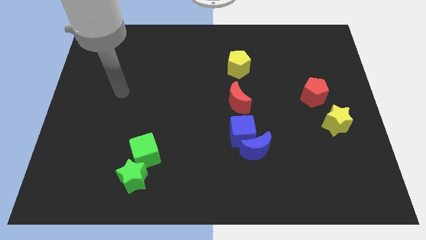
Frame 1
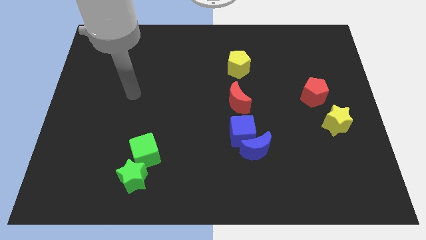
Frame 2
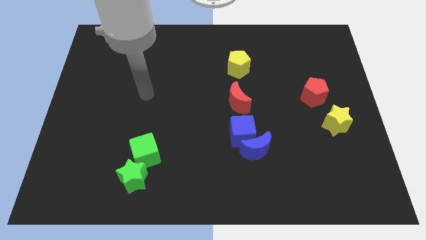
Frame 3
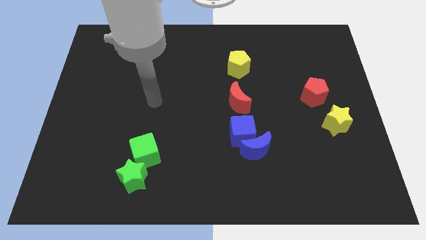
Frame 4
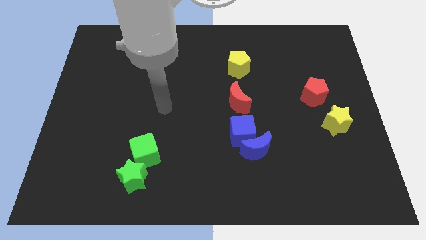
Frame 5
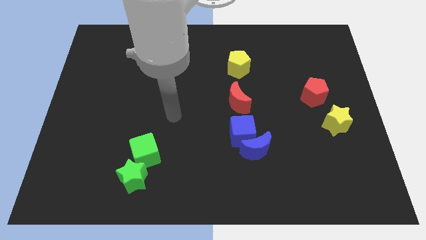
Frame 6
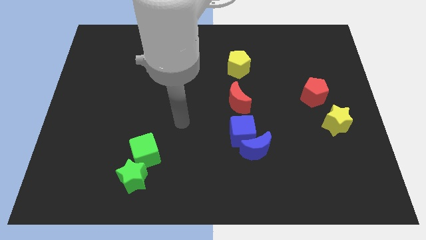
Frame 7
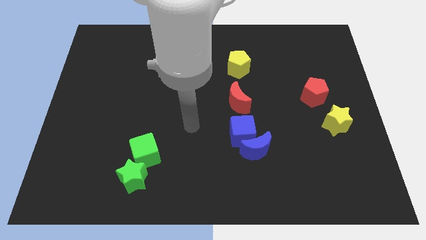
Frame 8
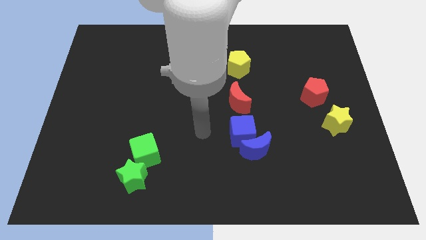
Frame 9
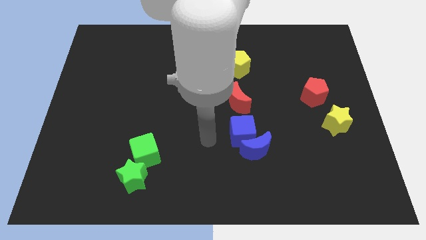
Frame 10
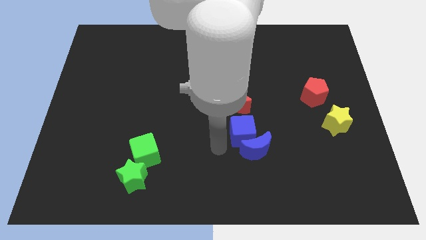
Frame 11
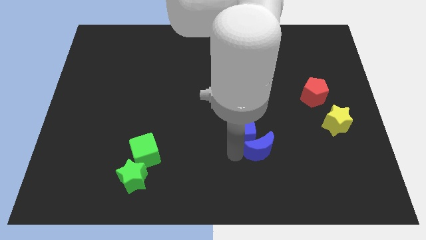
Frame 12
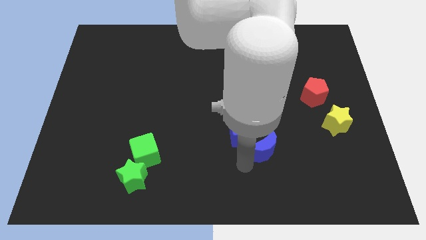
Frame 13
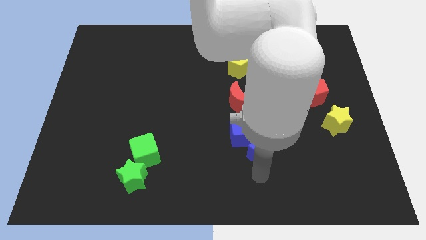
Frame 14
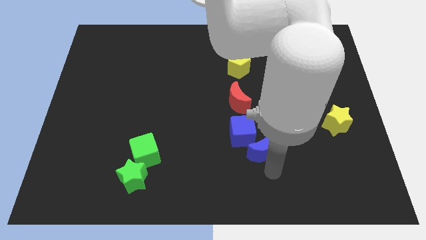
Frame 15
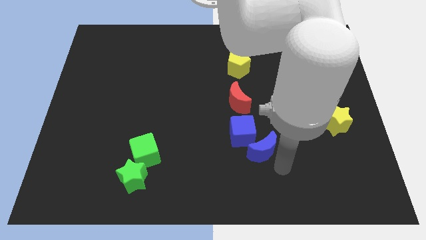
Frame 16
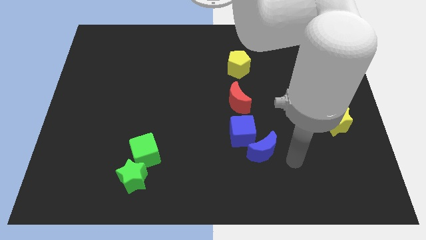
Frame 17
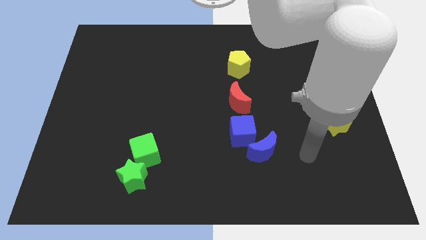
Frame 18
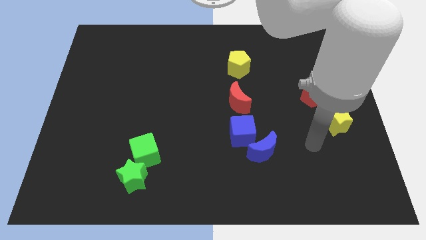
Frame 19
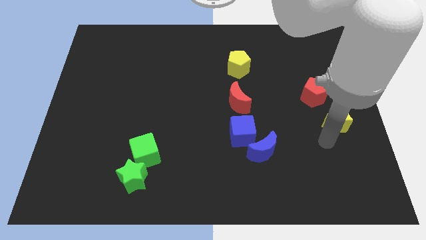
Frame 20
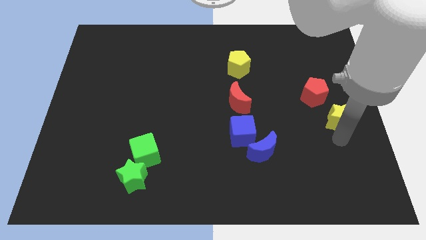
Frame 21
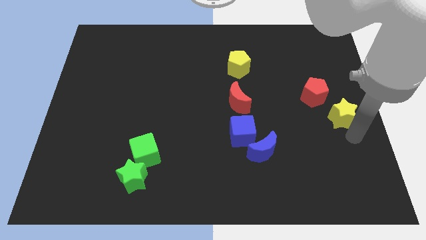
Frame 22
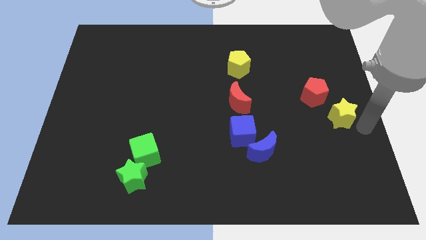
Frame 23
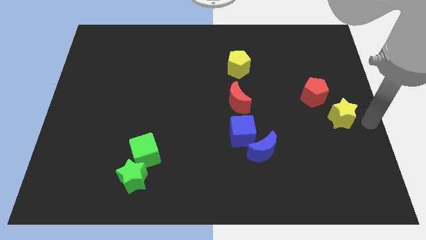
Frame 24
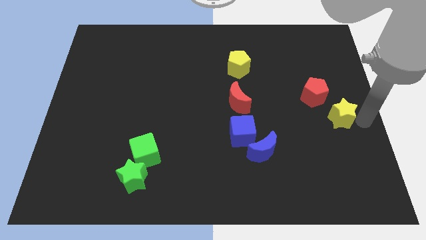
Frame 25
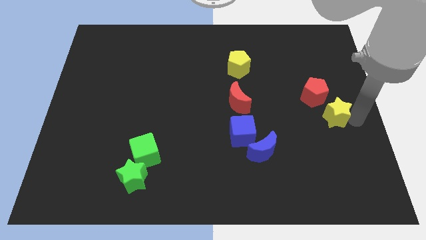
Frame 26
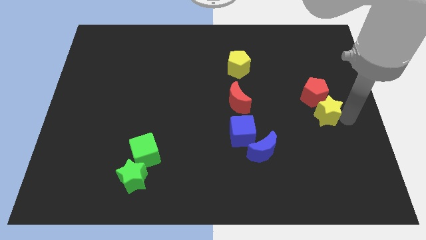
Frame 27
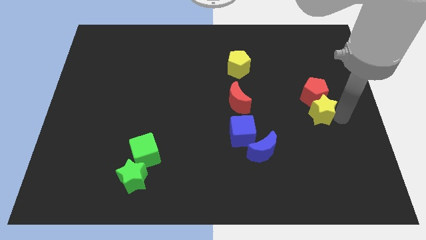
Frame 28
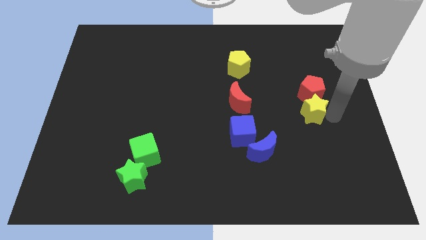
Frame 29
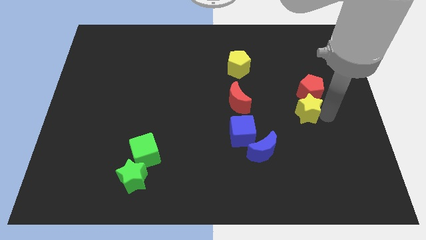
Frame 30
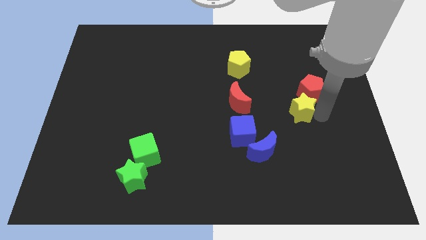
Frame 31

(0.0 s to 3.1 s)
slide the yellow star up and left a bit

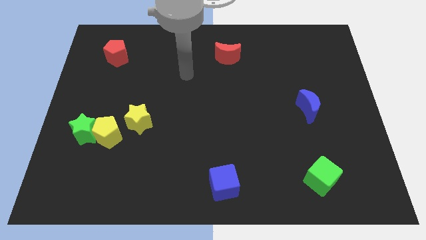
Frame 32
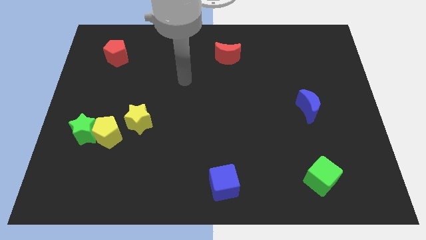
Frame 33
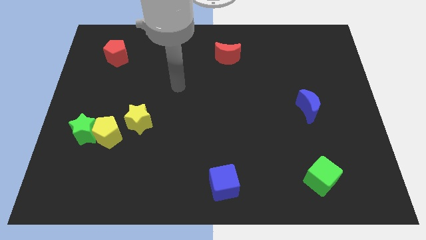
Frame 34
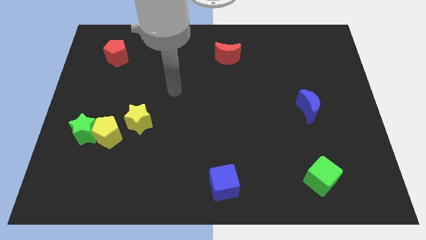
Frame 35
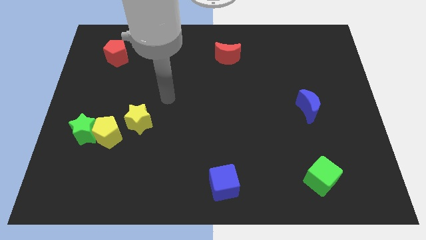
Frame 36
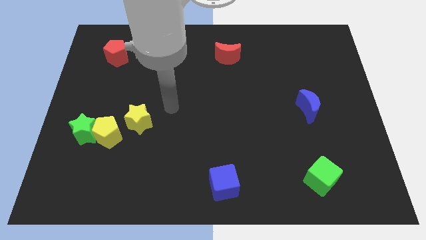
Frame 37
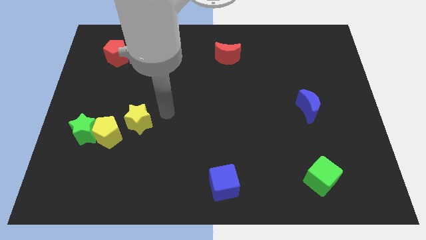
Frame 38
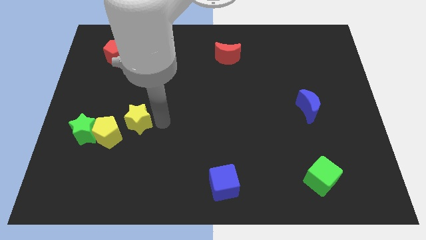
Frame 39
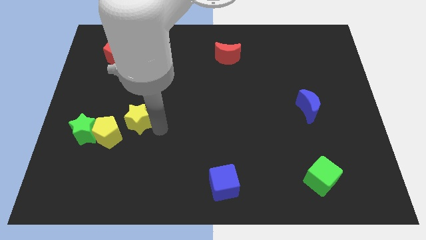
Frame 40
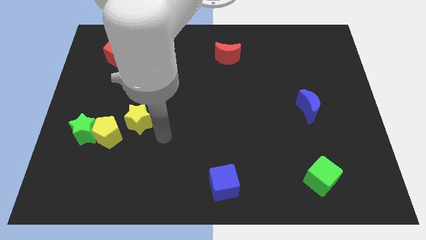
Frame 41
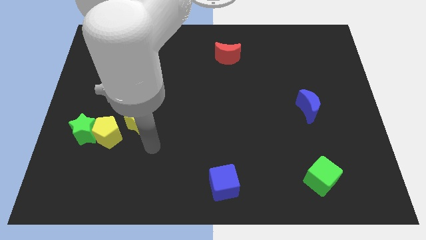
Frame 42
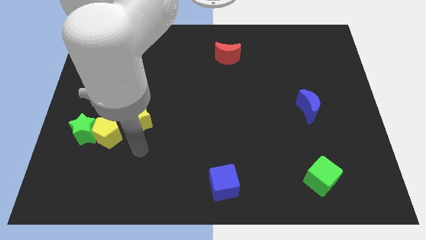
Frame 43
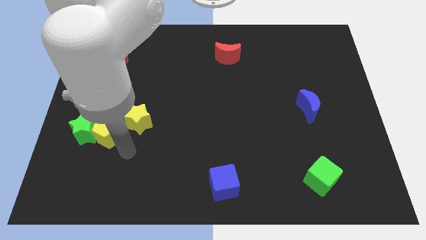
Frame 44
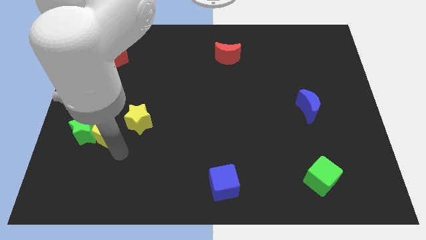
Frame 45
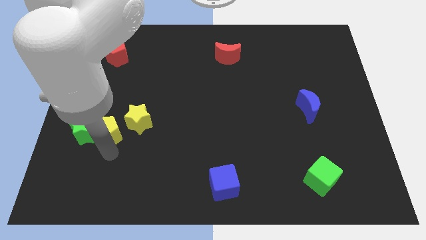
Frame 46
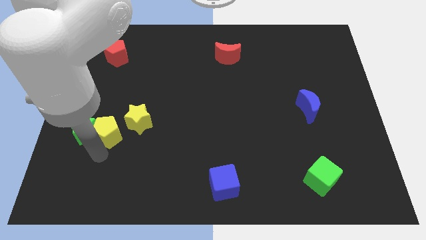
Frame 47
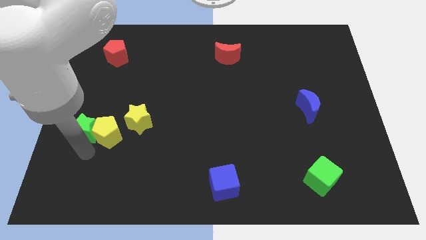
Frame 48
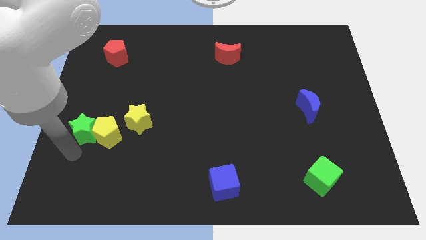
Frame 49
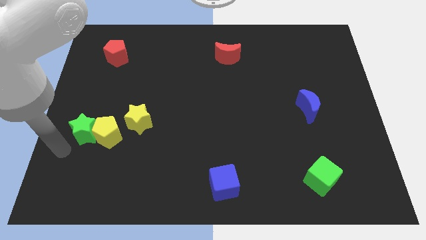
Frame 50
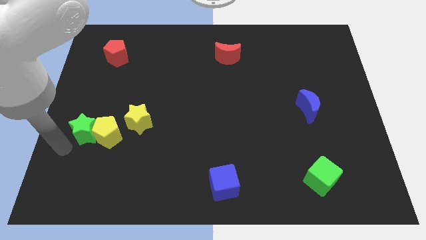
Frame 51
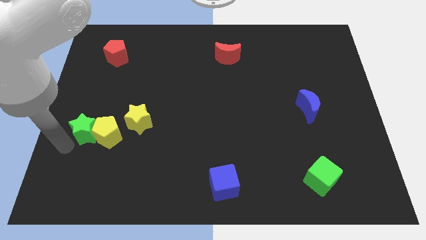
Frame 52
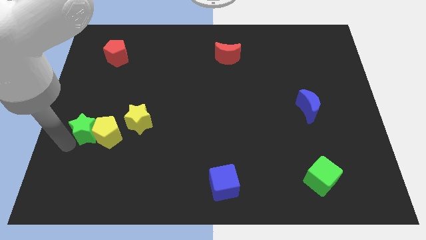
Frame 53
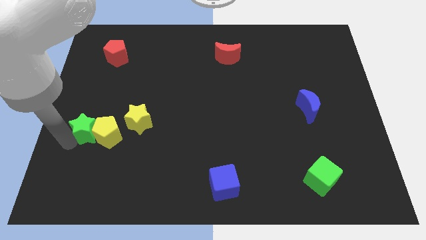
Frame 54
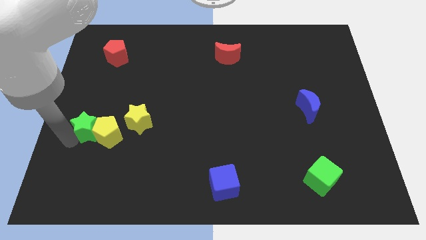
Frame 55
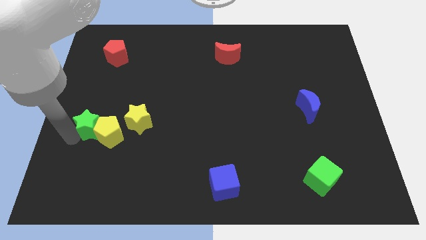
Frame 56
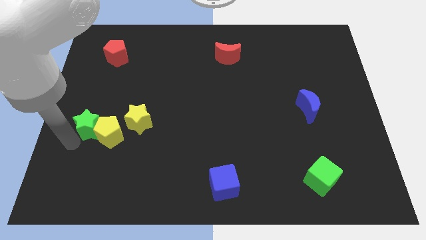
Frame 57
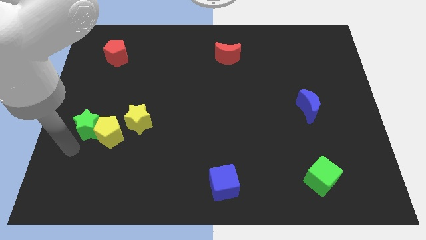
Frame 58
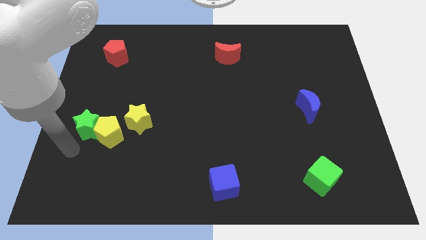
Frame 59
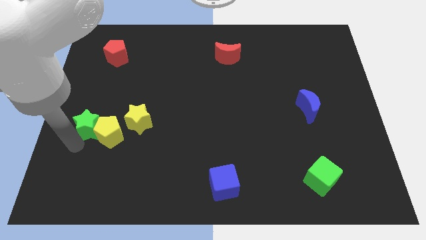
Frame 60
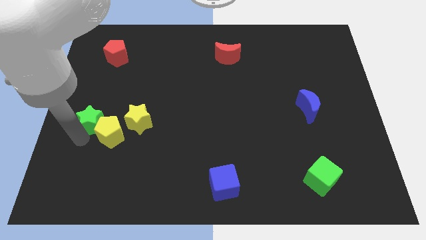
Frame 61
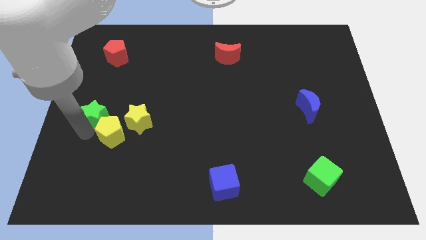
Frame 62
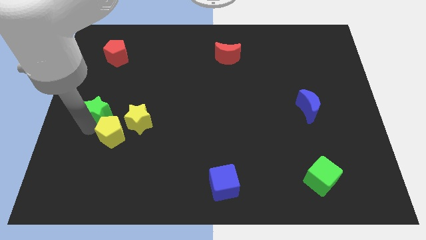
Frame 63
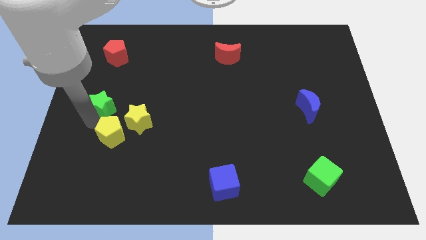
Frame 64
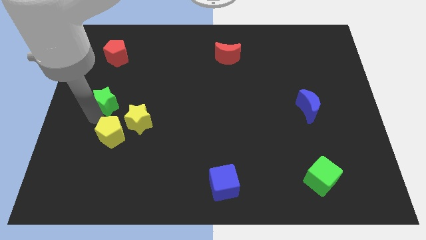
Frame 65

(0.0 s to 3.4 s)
slightly move the green star diagonally upwards and right

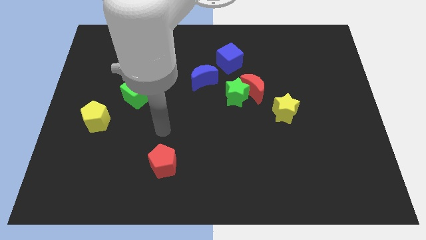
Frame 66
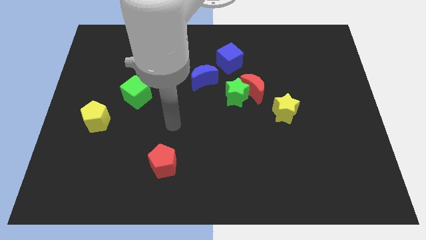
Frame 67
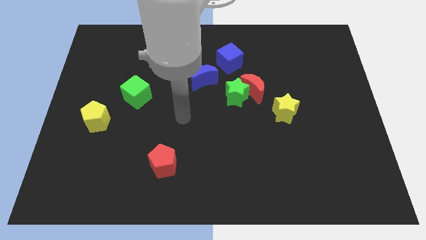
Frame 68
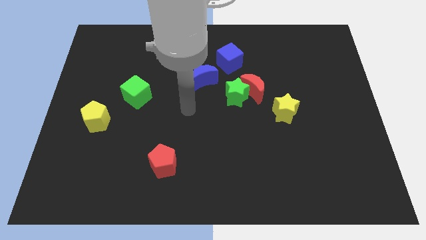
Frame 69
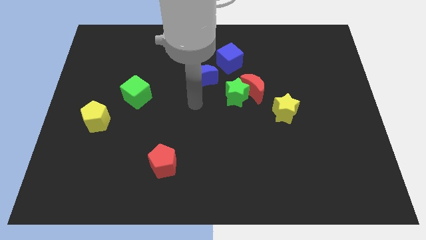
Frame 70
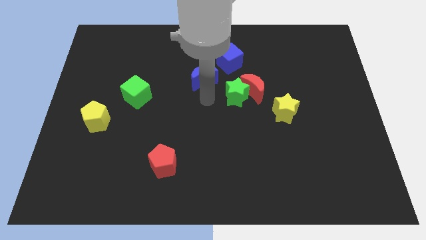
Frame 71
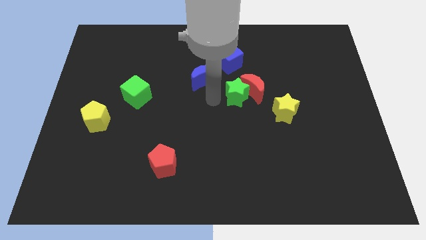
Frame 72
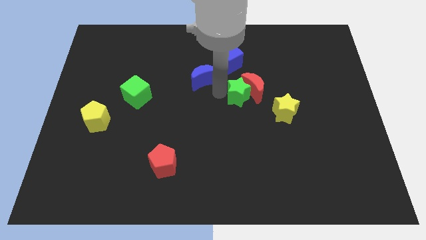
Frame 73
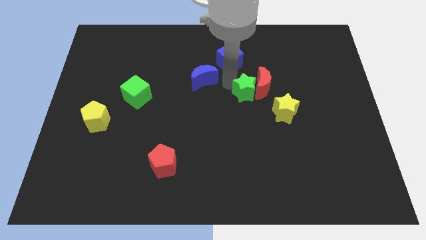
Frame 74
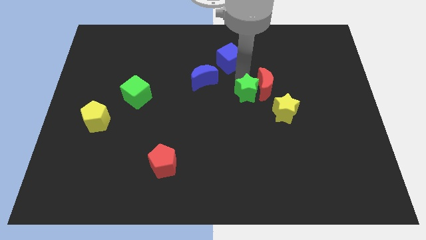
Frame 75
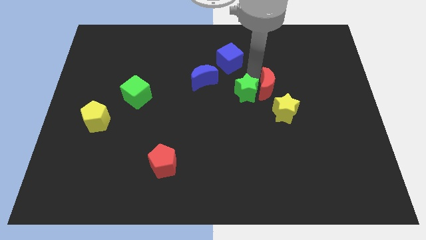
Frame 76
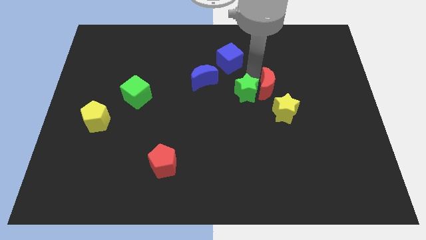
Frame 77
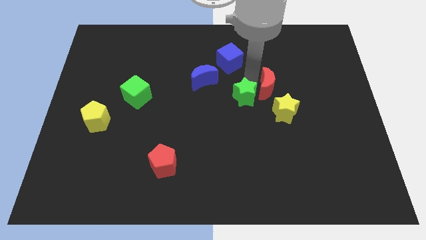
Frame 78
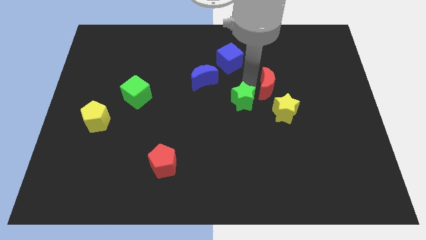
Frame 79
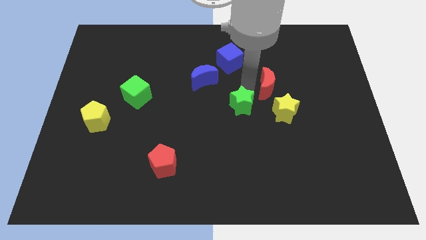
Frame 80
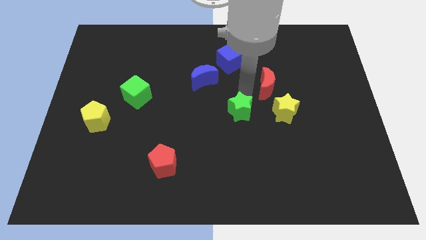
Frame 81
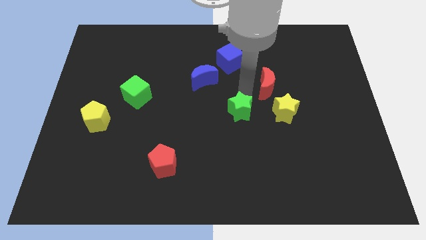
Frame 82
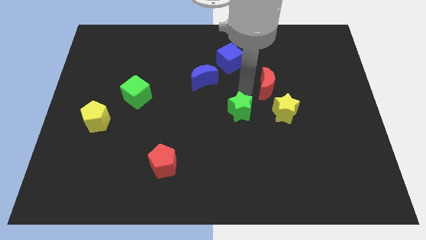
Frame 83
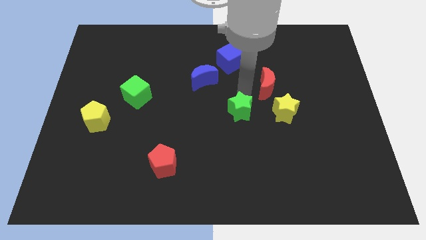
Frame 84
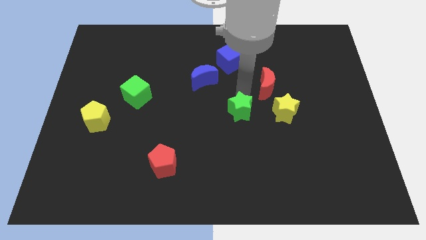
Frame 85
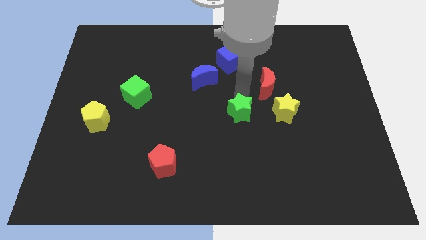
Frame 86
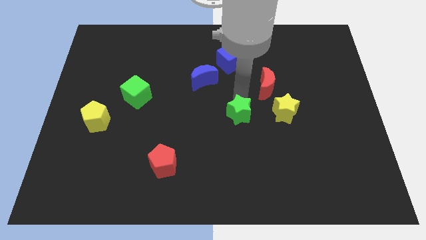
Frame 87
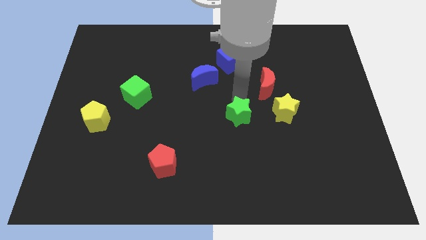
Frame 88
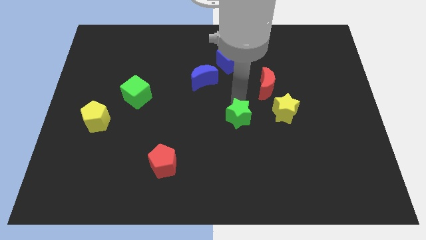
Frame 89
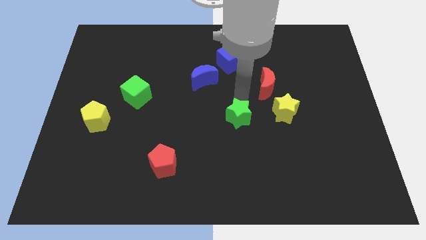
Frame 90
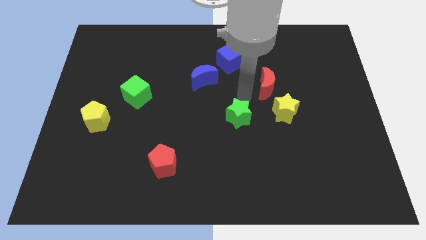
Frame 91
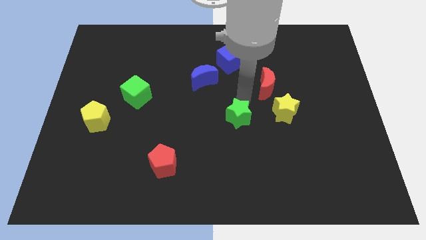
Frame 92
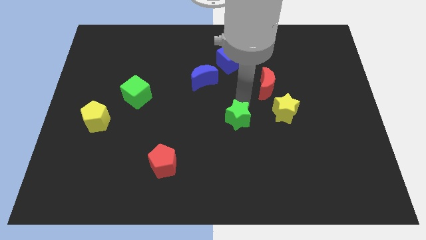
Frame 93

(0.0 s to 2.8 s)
push the green star down slightly
